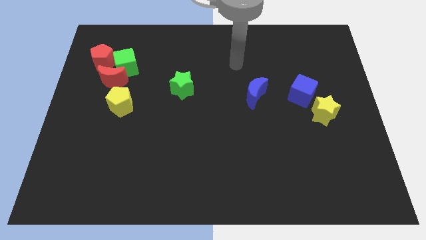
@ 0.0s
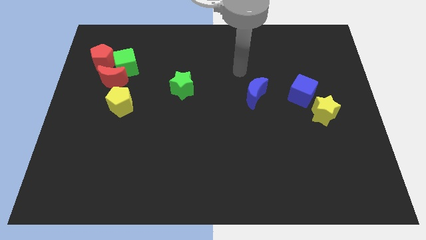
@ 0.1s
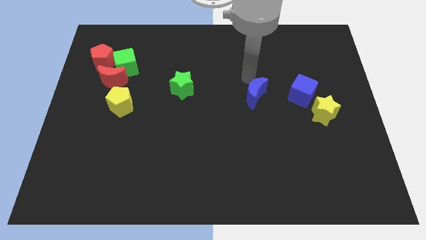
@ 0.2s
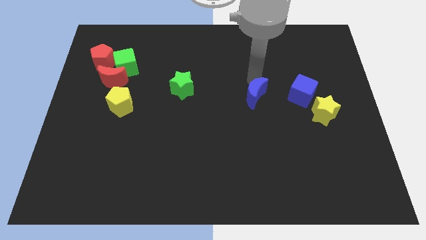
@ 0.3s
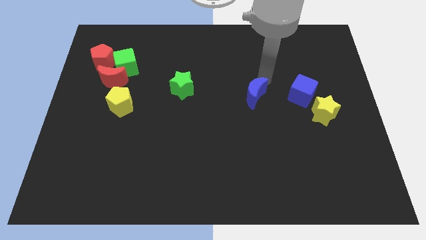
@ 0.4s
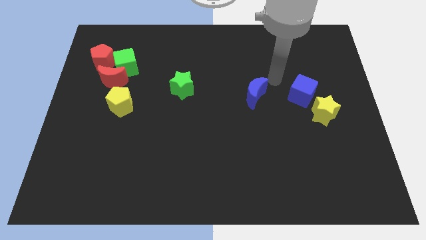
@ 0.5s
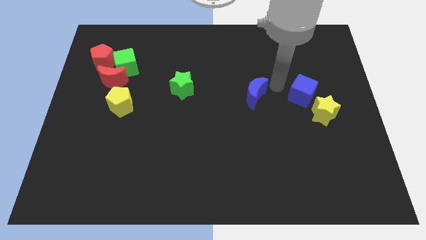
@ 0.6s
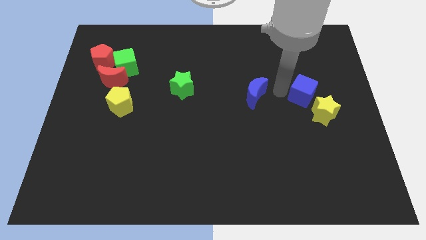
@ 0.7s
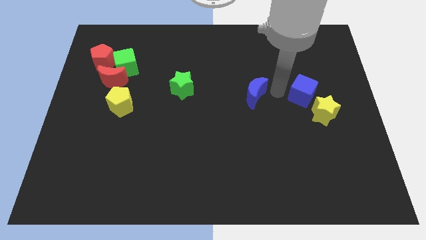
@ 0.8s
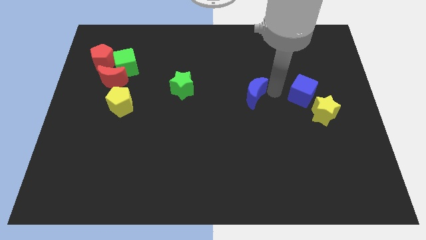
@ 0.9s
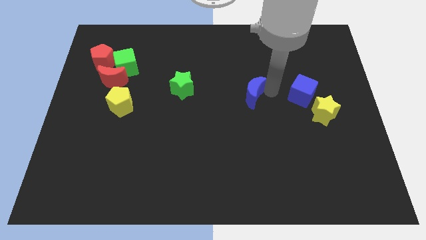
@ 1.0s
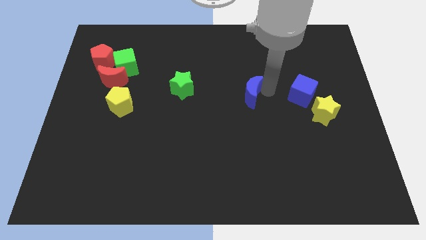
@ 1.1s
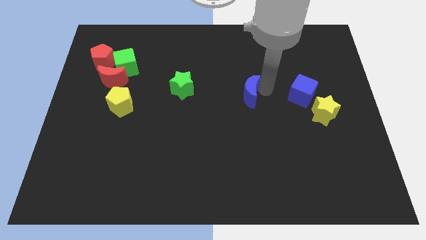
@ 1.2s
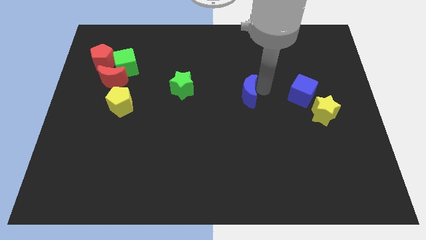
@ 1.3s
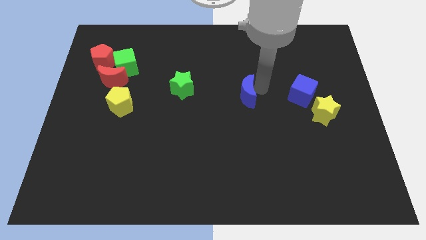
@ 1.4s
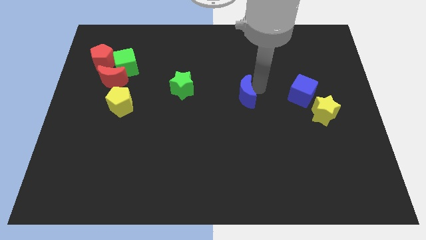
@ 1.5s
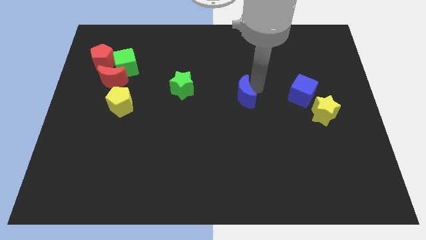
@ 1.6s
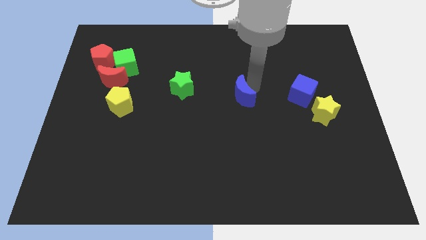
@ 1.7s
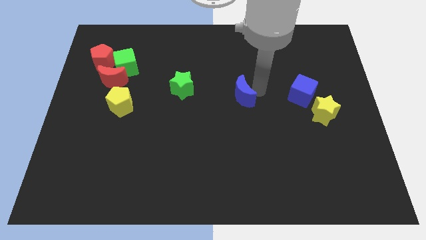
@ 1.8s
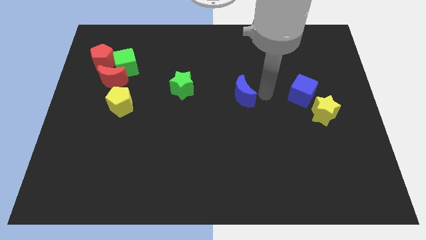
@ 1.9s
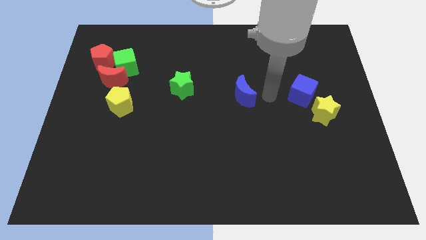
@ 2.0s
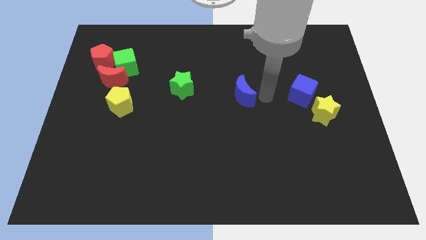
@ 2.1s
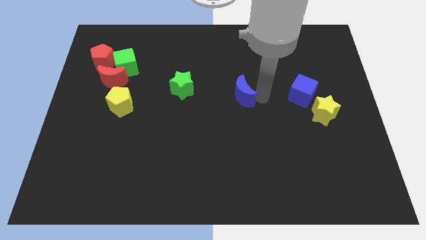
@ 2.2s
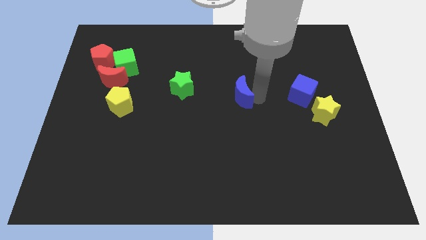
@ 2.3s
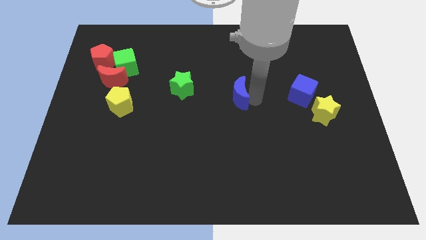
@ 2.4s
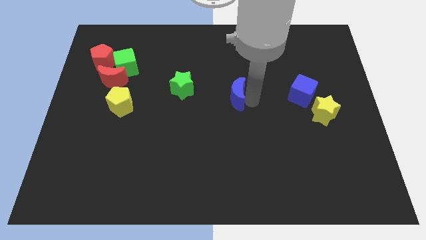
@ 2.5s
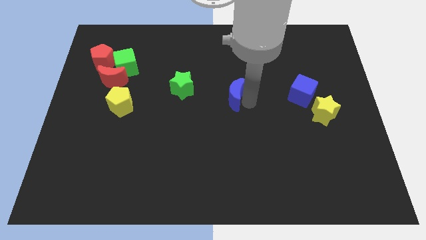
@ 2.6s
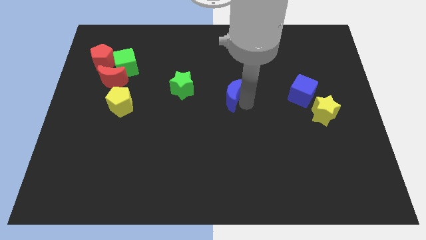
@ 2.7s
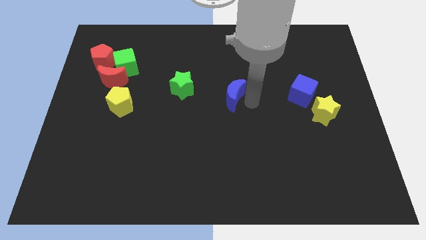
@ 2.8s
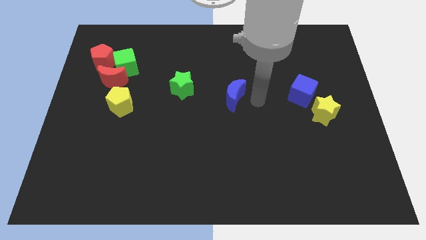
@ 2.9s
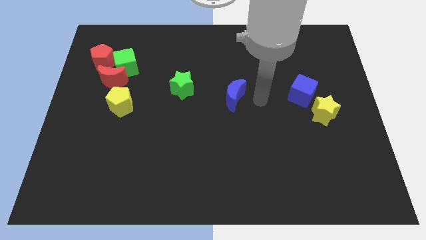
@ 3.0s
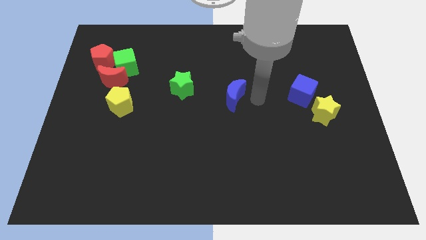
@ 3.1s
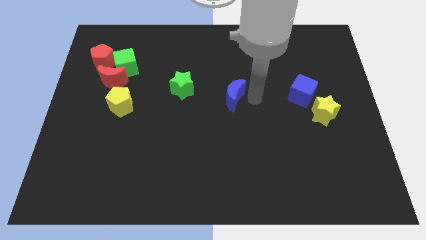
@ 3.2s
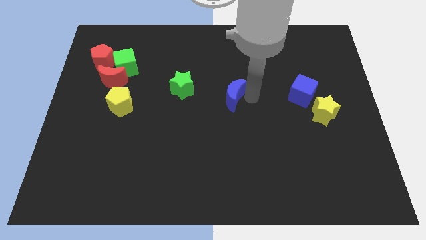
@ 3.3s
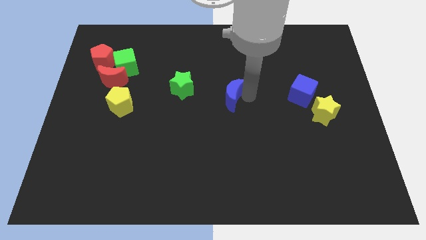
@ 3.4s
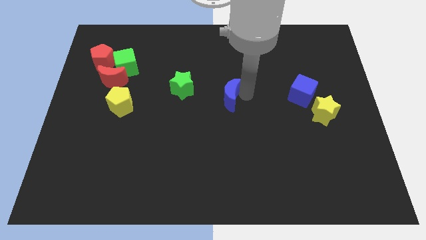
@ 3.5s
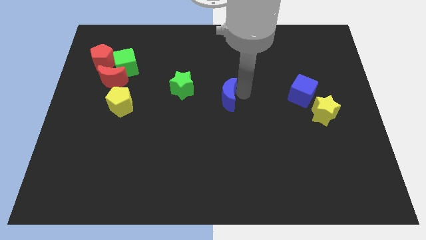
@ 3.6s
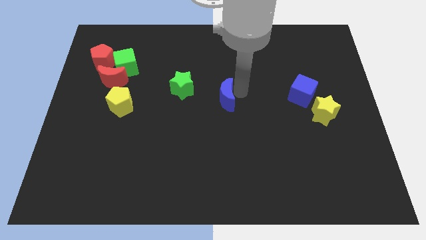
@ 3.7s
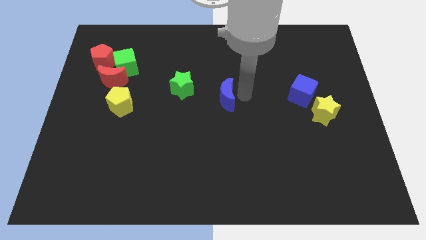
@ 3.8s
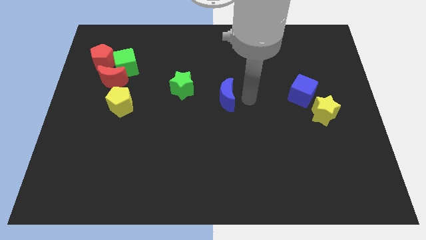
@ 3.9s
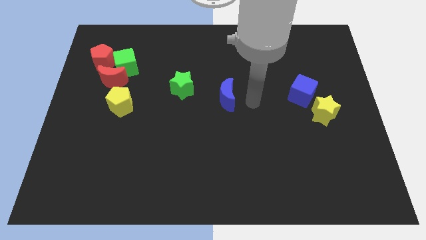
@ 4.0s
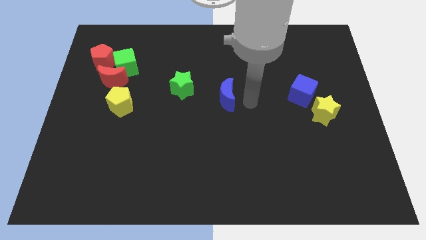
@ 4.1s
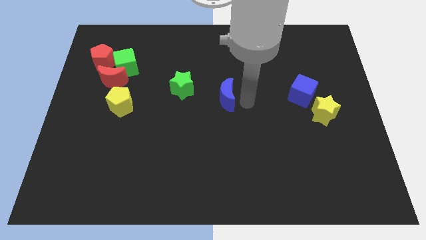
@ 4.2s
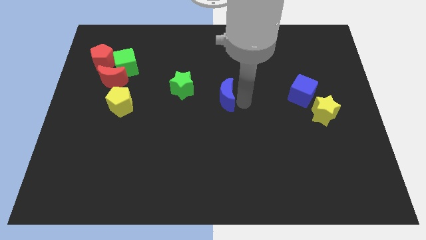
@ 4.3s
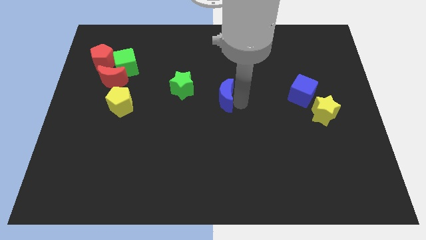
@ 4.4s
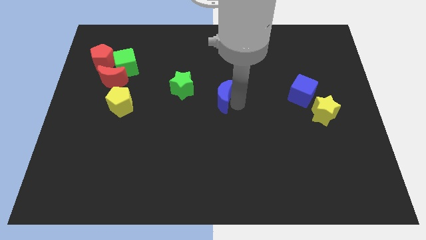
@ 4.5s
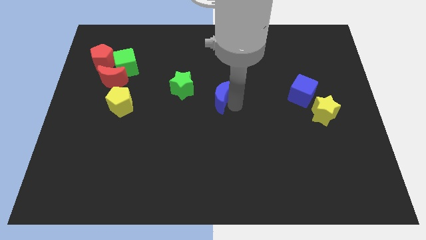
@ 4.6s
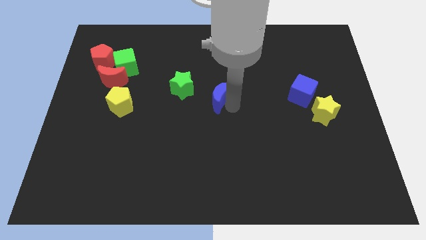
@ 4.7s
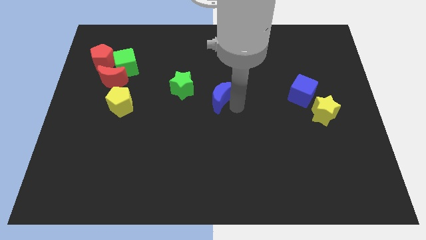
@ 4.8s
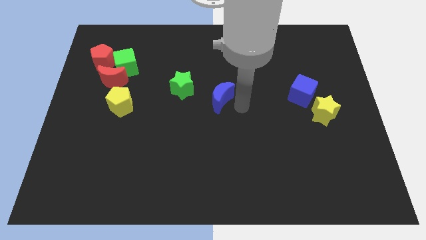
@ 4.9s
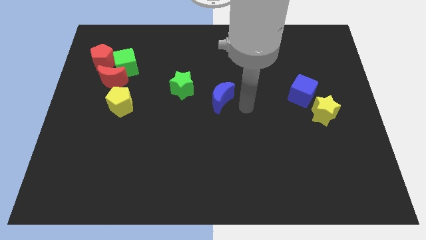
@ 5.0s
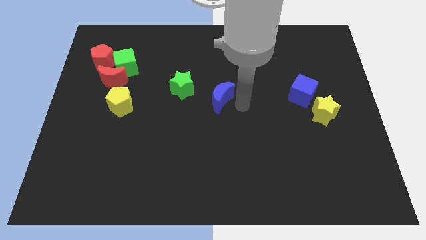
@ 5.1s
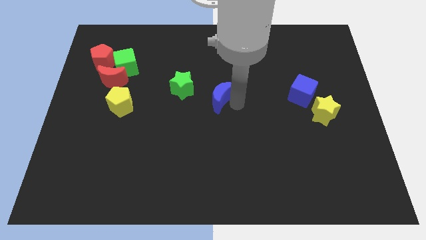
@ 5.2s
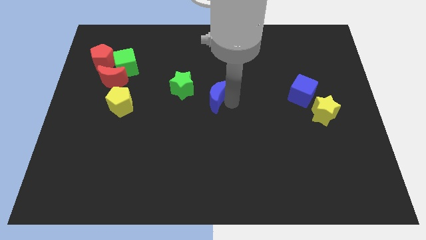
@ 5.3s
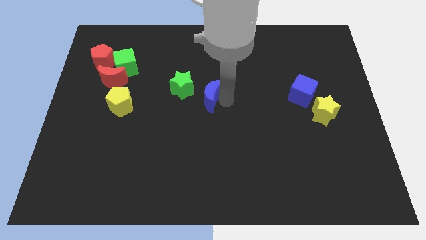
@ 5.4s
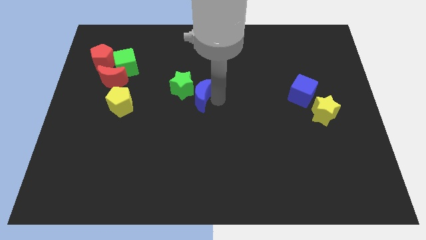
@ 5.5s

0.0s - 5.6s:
slide the blue moon to the green star

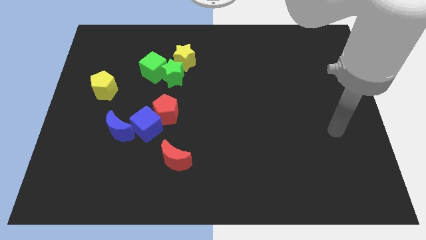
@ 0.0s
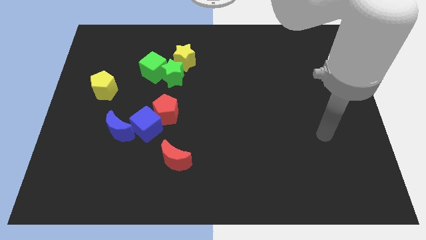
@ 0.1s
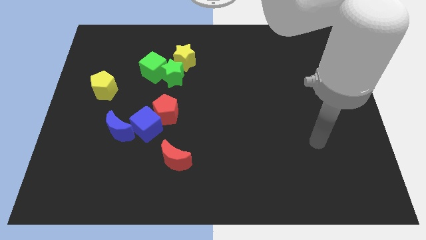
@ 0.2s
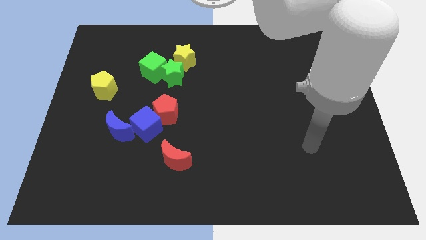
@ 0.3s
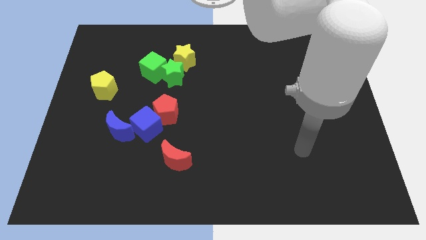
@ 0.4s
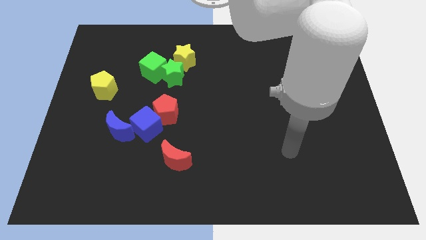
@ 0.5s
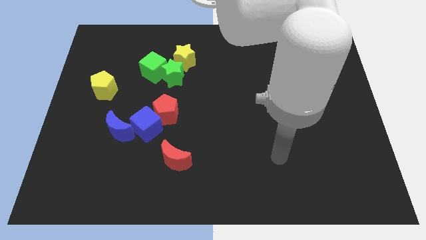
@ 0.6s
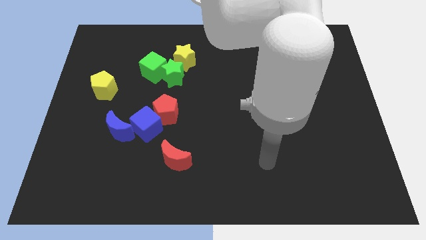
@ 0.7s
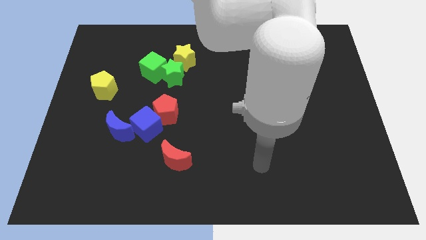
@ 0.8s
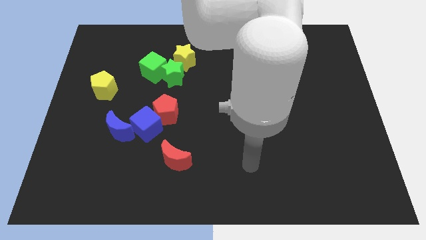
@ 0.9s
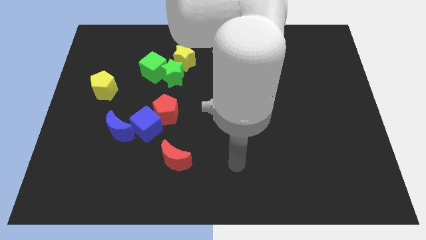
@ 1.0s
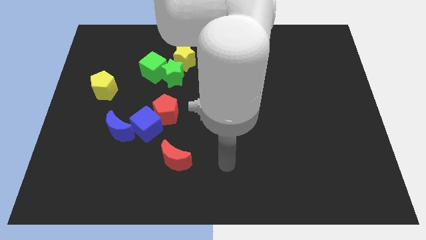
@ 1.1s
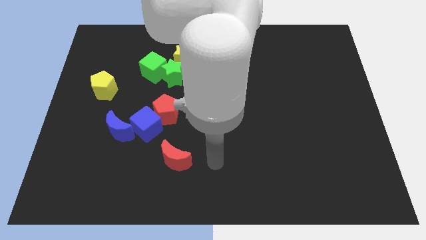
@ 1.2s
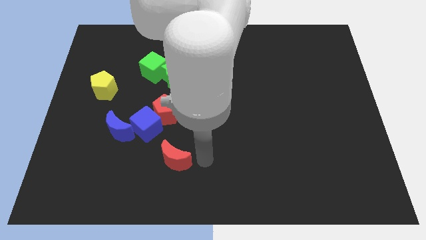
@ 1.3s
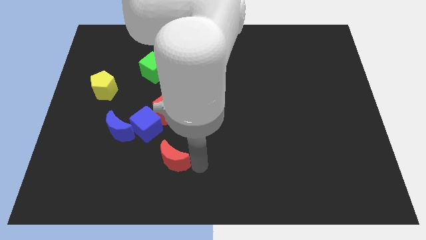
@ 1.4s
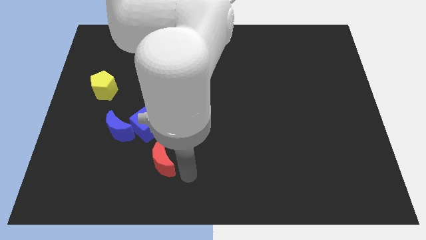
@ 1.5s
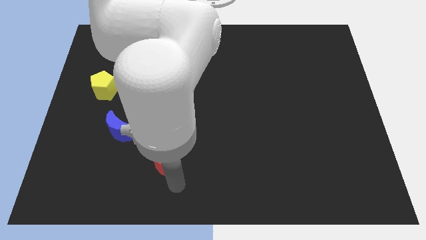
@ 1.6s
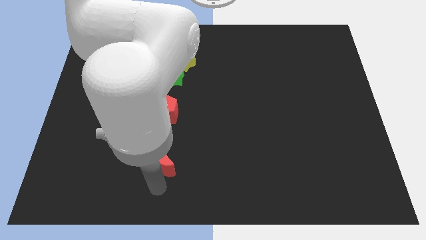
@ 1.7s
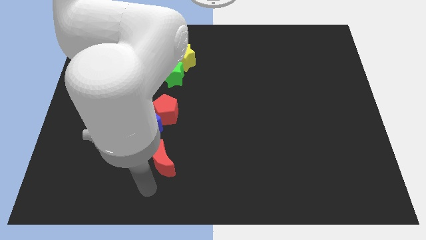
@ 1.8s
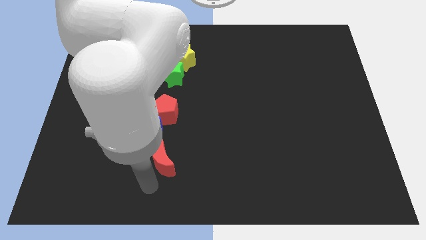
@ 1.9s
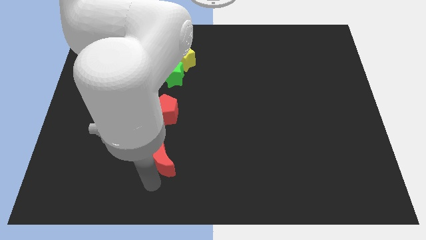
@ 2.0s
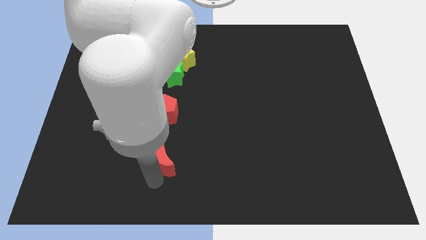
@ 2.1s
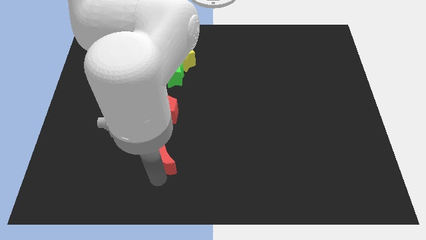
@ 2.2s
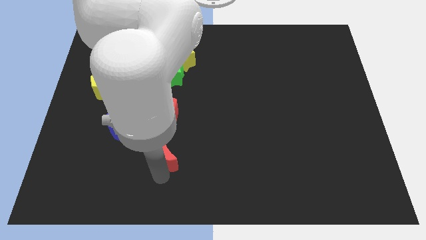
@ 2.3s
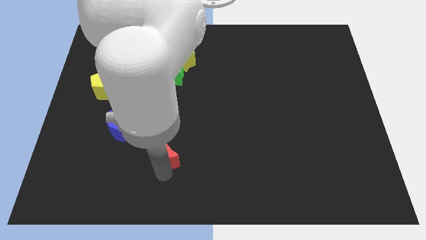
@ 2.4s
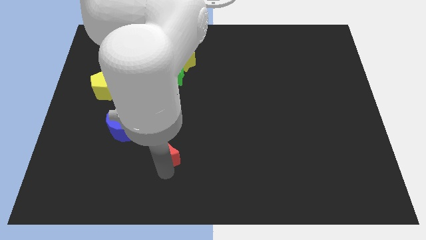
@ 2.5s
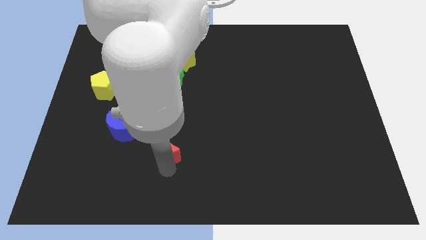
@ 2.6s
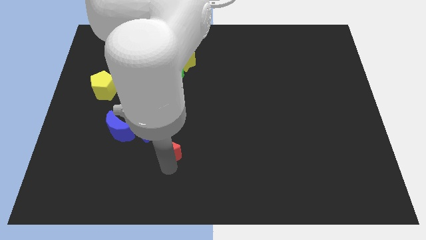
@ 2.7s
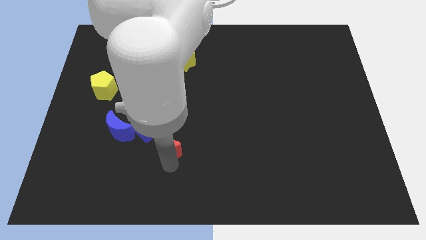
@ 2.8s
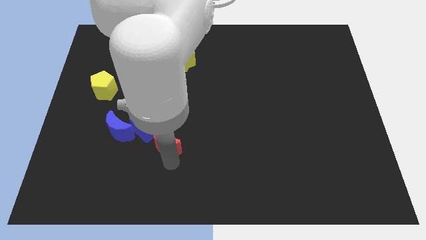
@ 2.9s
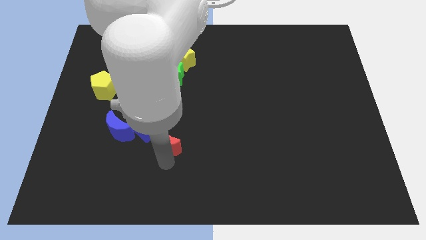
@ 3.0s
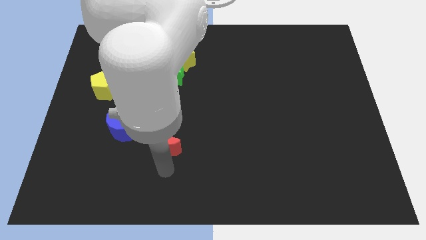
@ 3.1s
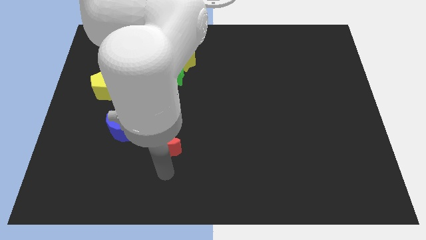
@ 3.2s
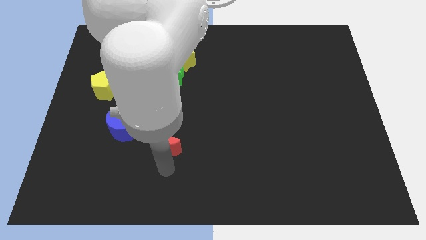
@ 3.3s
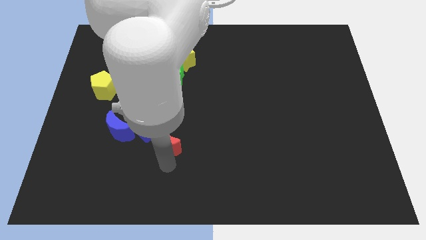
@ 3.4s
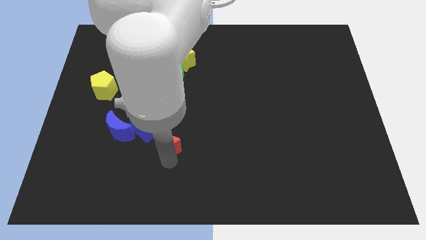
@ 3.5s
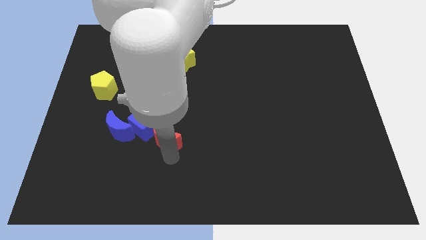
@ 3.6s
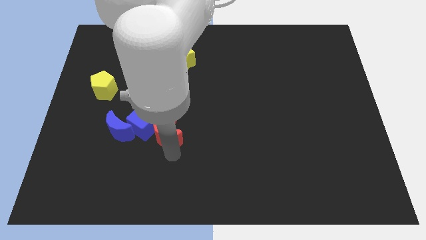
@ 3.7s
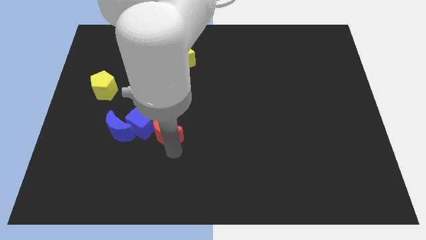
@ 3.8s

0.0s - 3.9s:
put the red moon next to the red pentagon
